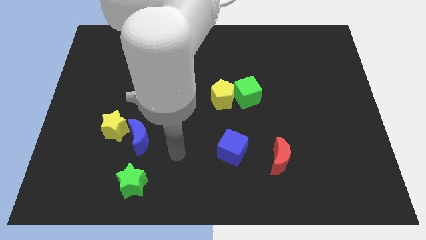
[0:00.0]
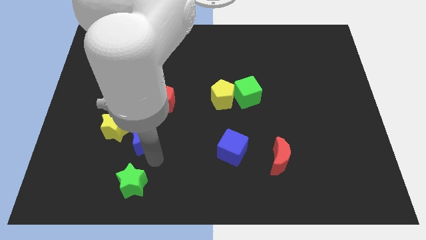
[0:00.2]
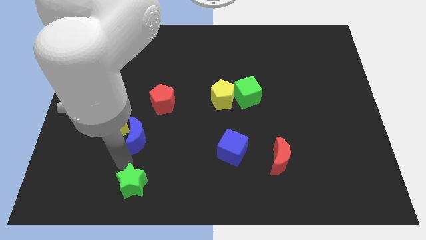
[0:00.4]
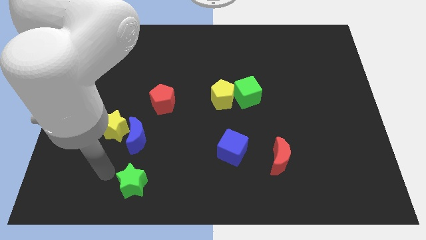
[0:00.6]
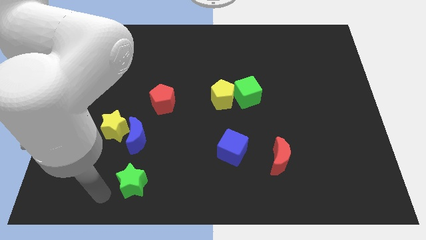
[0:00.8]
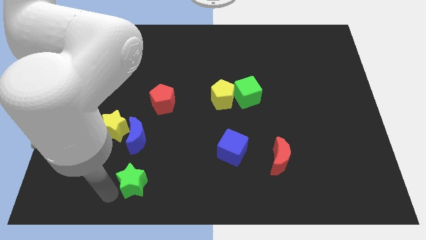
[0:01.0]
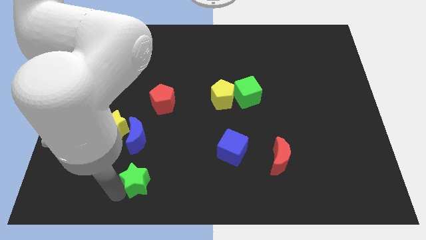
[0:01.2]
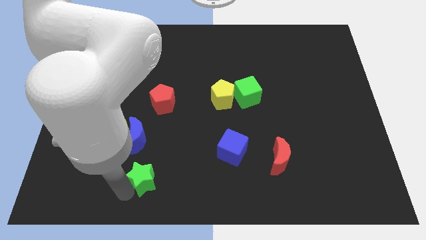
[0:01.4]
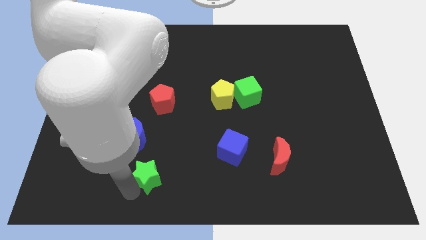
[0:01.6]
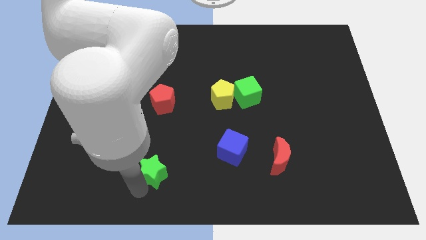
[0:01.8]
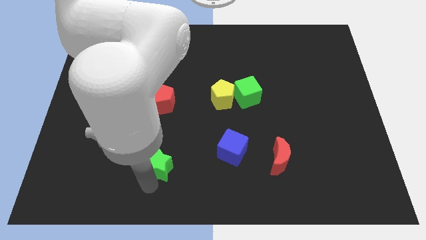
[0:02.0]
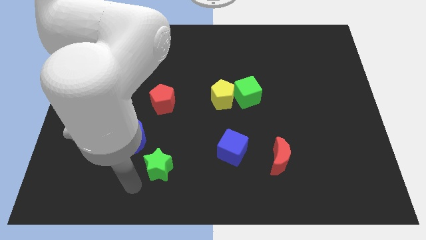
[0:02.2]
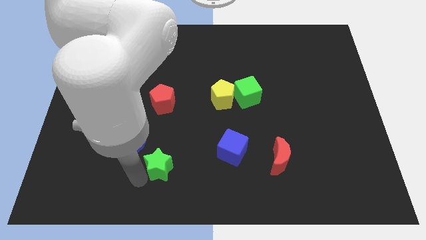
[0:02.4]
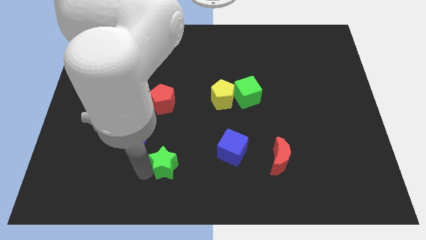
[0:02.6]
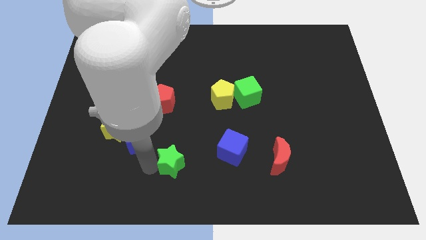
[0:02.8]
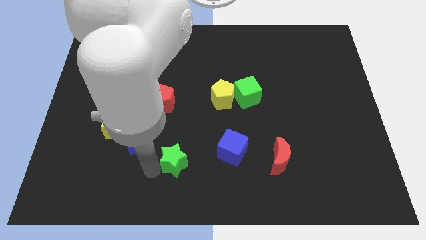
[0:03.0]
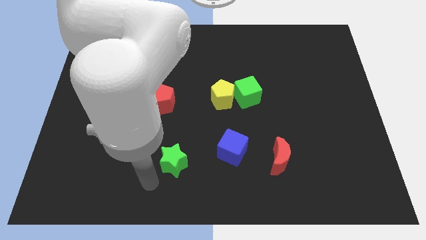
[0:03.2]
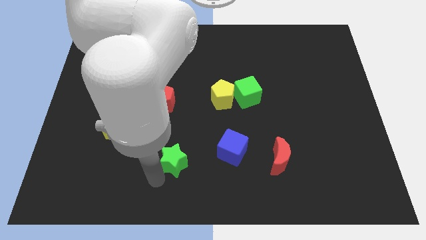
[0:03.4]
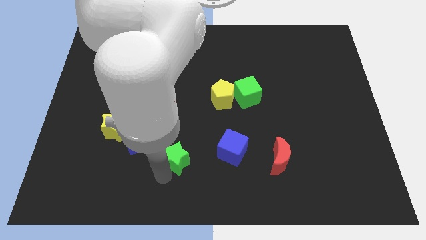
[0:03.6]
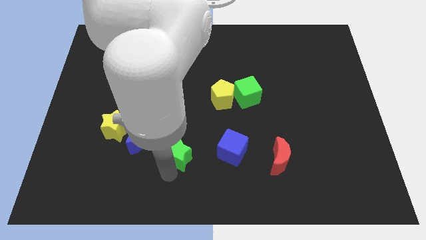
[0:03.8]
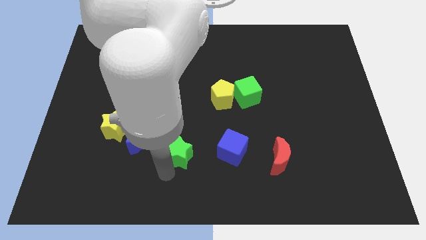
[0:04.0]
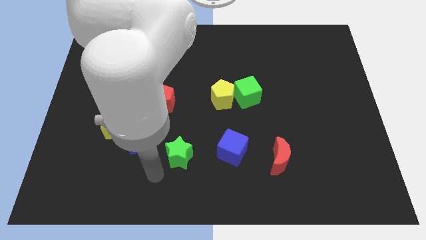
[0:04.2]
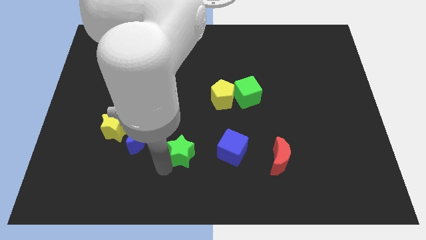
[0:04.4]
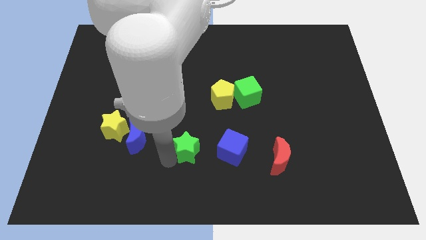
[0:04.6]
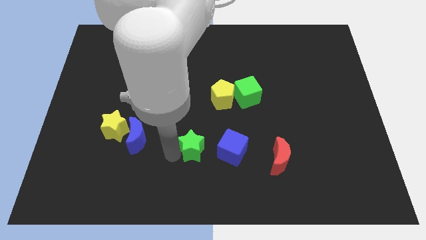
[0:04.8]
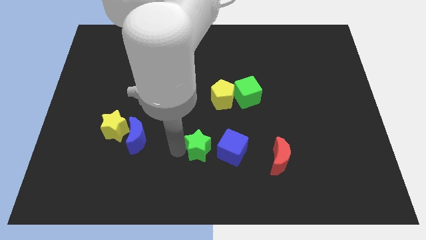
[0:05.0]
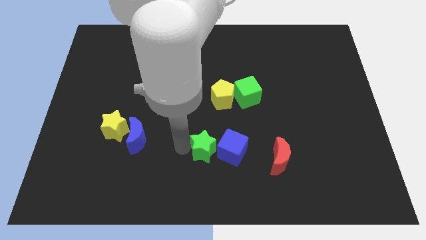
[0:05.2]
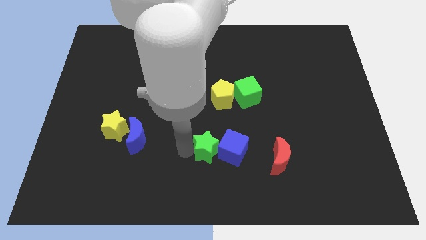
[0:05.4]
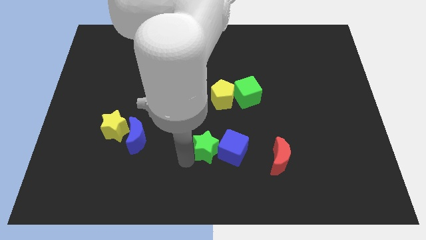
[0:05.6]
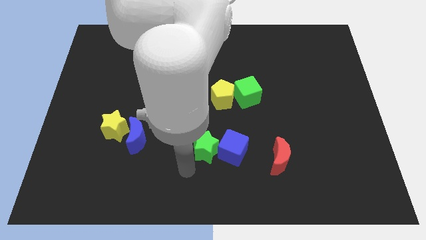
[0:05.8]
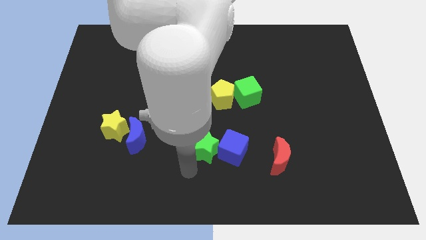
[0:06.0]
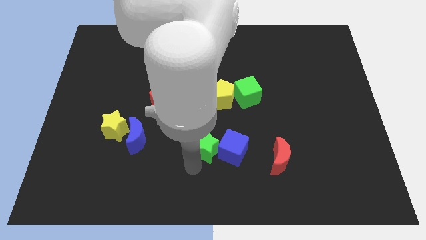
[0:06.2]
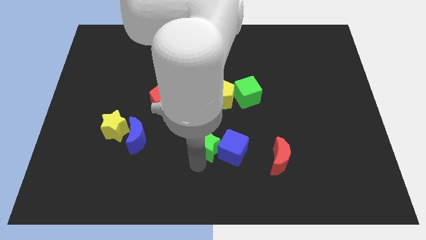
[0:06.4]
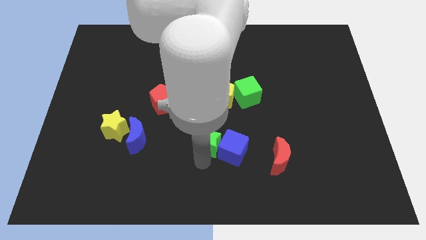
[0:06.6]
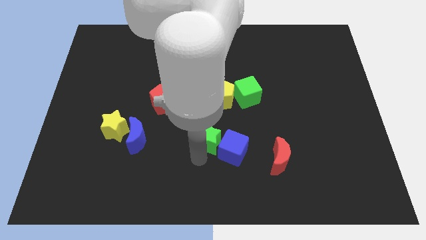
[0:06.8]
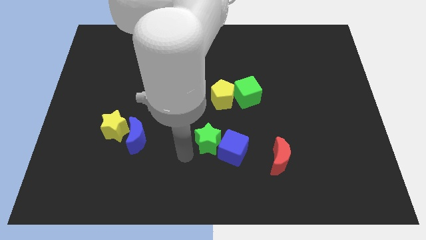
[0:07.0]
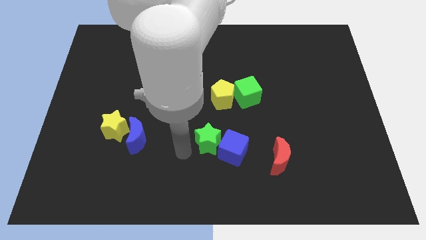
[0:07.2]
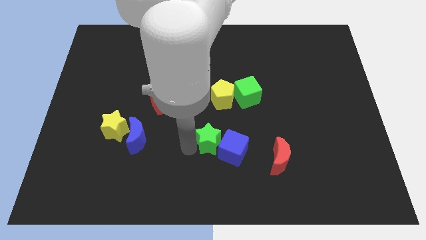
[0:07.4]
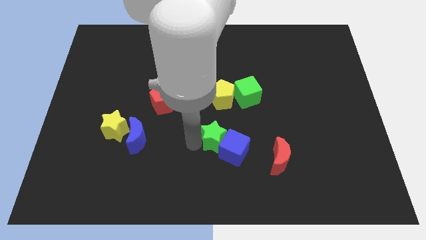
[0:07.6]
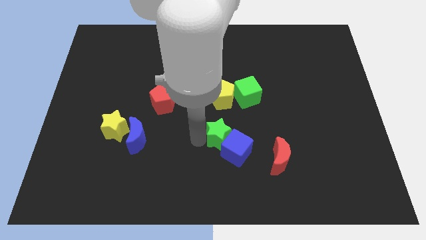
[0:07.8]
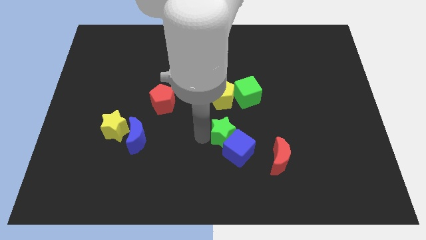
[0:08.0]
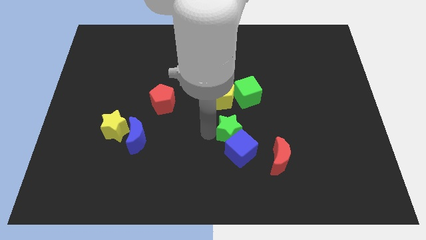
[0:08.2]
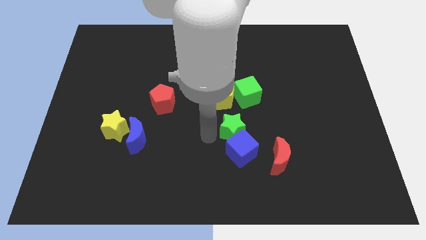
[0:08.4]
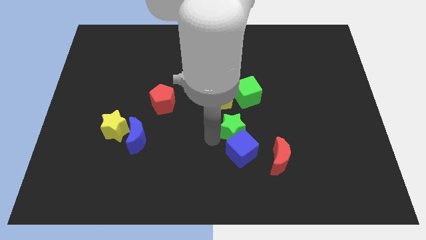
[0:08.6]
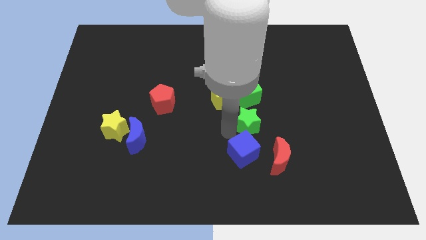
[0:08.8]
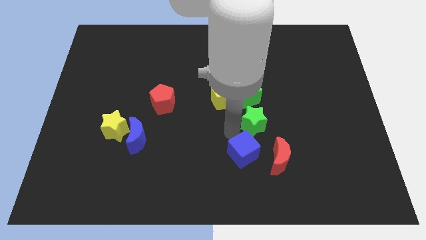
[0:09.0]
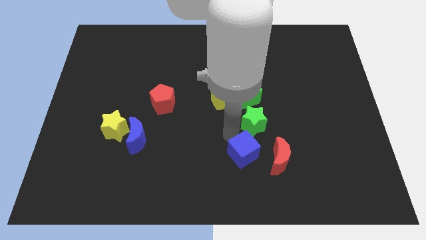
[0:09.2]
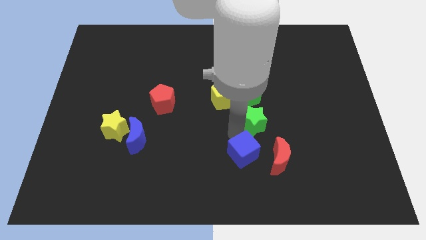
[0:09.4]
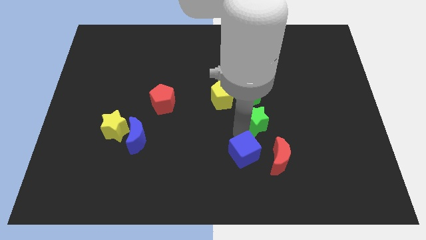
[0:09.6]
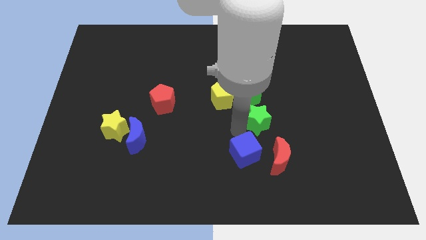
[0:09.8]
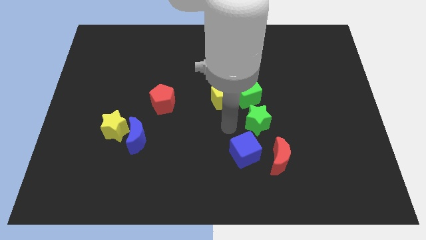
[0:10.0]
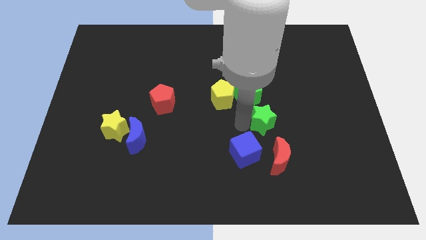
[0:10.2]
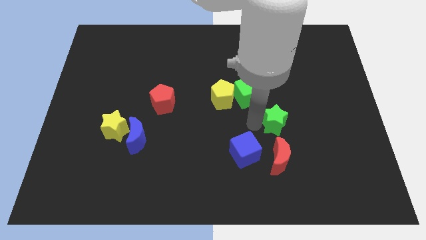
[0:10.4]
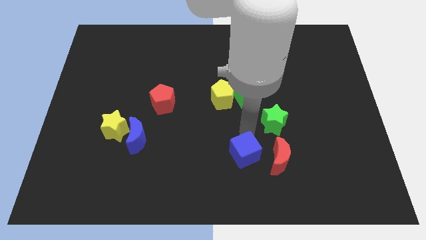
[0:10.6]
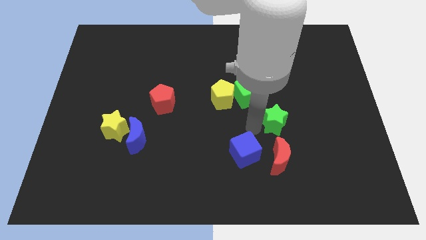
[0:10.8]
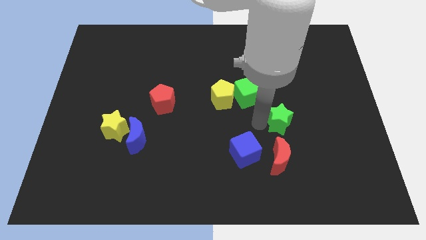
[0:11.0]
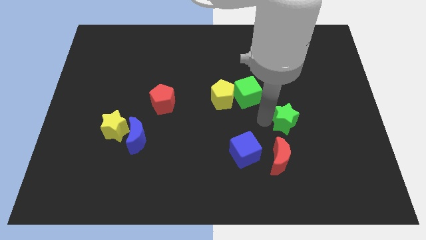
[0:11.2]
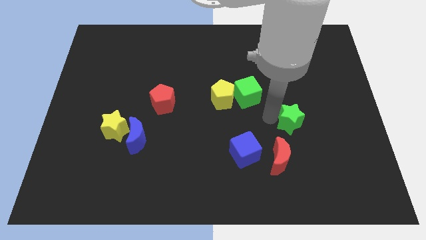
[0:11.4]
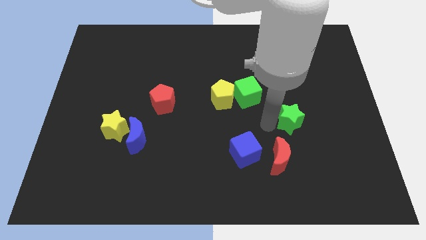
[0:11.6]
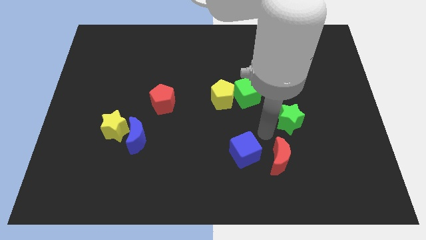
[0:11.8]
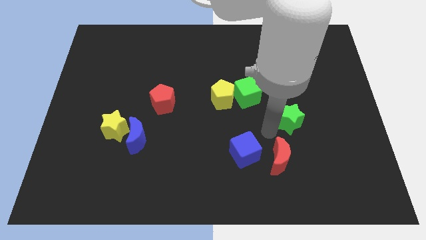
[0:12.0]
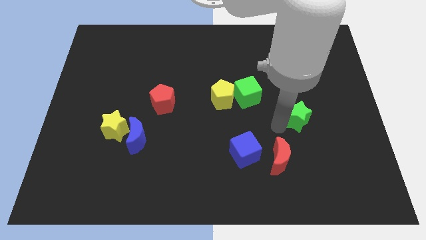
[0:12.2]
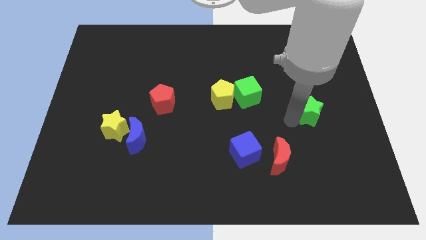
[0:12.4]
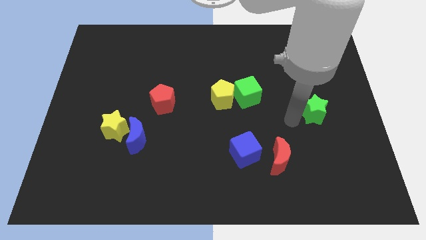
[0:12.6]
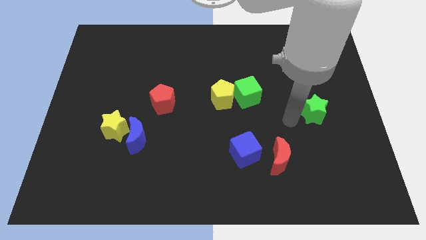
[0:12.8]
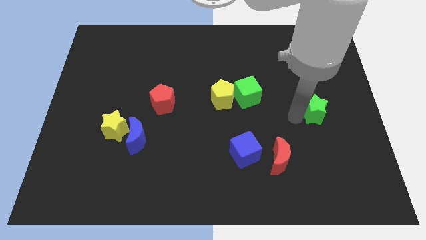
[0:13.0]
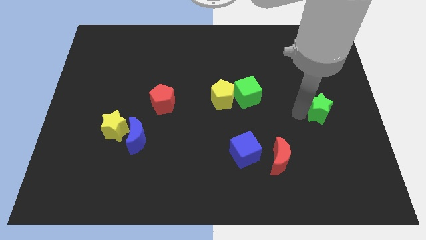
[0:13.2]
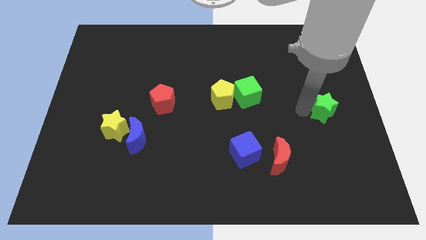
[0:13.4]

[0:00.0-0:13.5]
push the green star to the right side of the board

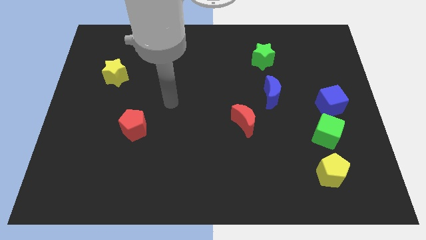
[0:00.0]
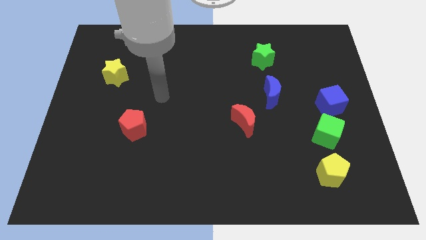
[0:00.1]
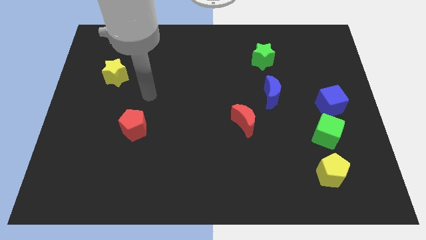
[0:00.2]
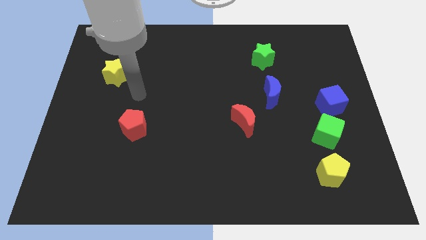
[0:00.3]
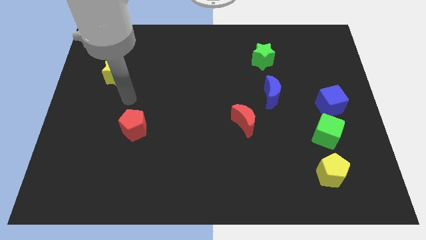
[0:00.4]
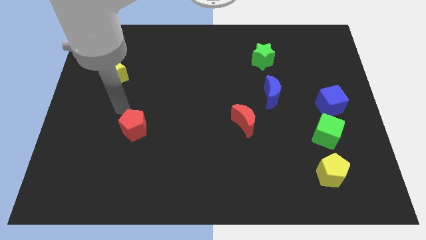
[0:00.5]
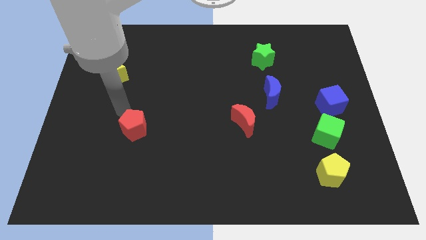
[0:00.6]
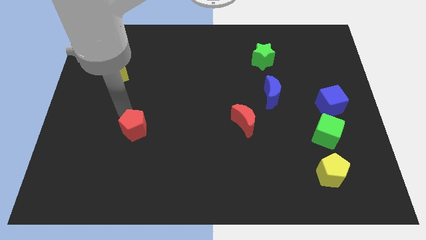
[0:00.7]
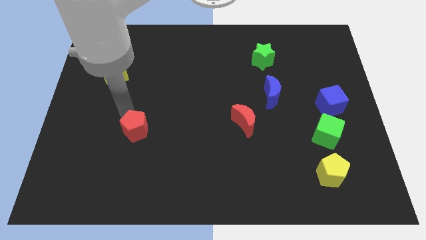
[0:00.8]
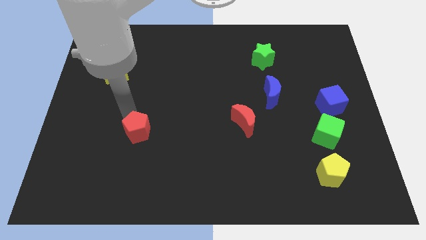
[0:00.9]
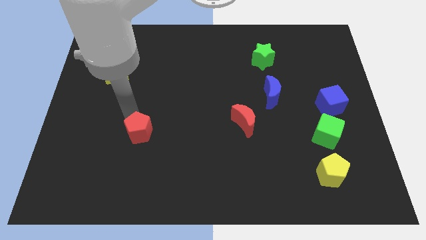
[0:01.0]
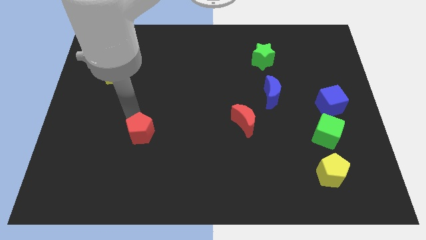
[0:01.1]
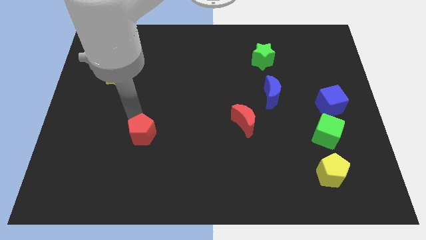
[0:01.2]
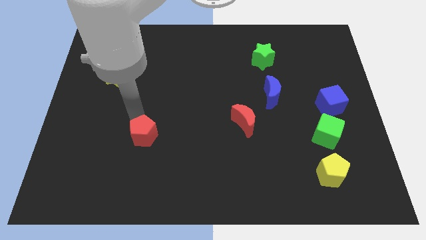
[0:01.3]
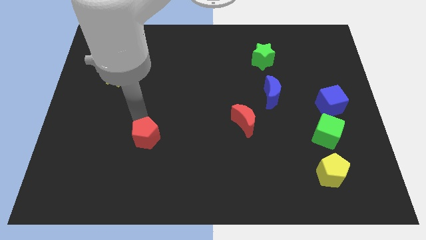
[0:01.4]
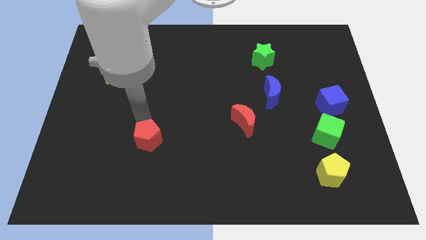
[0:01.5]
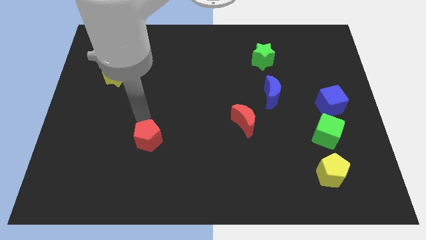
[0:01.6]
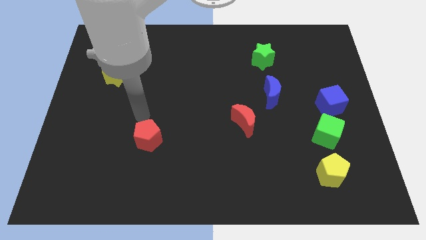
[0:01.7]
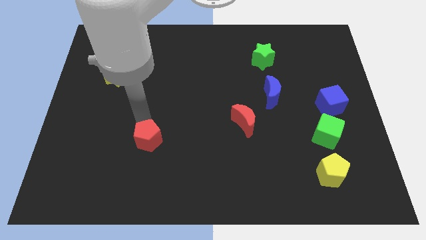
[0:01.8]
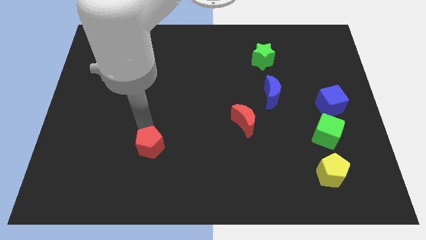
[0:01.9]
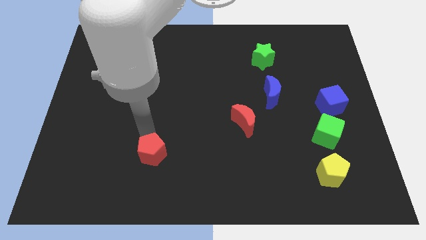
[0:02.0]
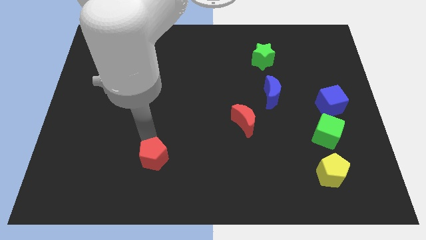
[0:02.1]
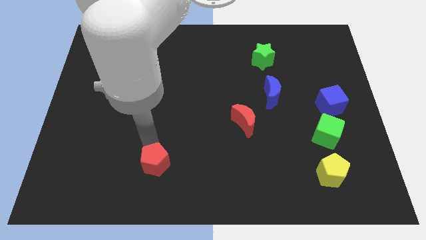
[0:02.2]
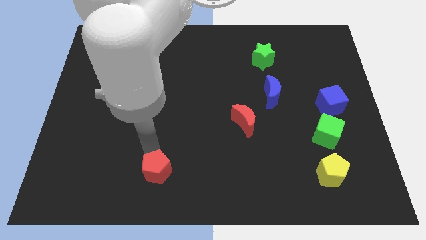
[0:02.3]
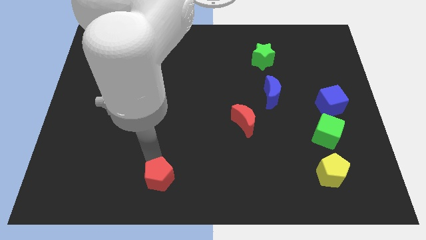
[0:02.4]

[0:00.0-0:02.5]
put the red pentagon to the bottom
